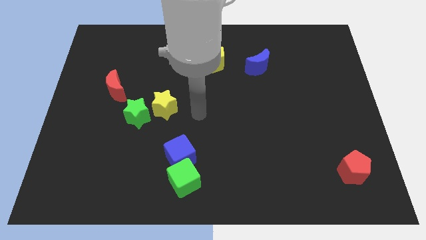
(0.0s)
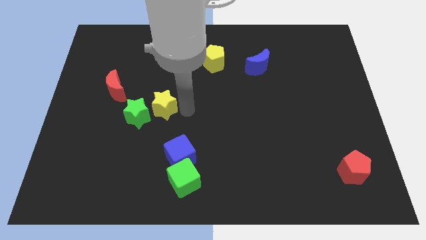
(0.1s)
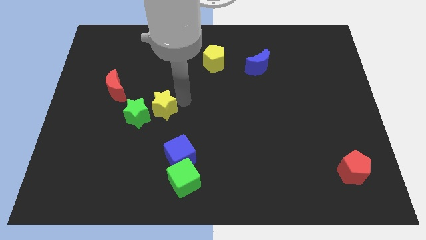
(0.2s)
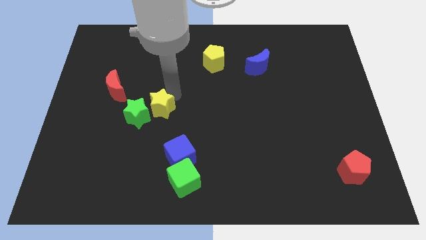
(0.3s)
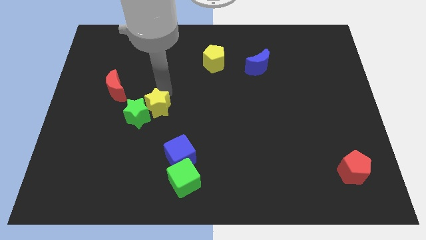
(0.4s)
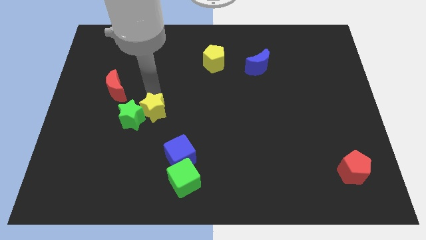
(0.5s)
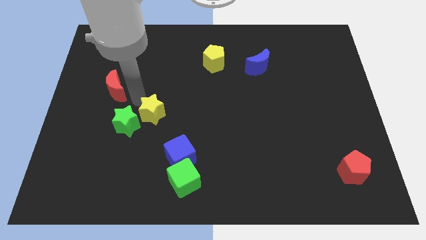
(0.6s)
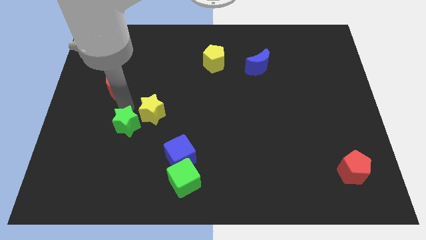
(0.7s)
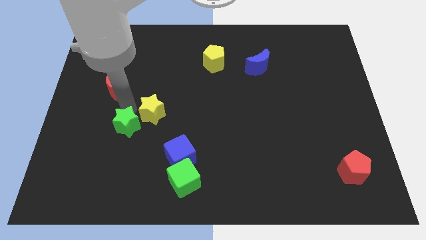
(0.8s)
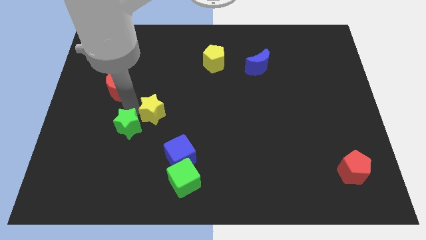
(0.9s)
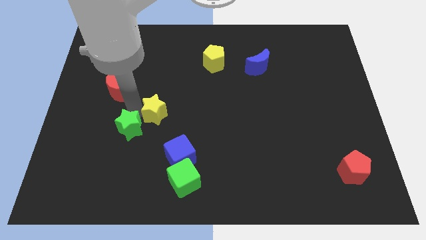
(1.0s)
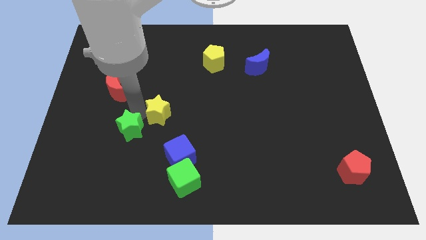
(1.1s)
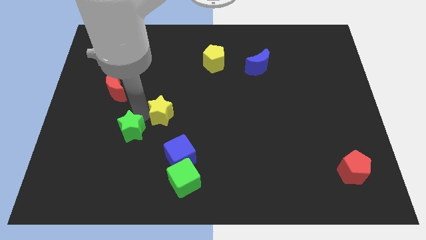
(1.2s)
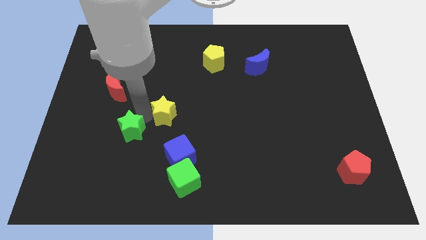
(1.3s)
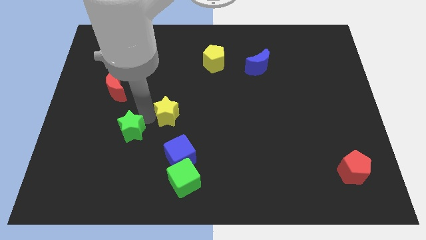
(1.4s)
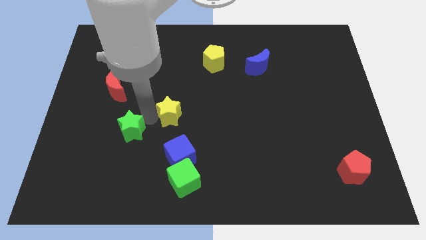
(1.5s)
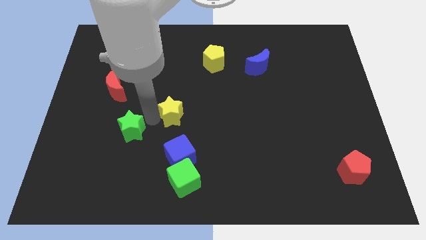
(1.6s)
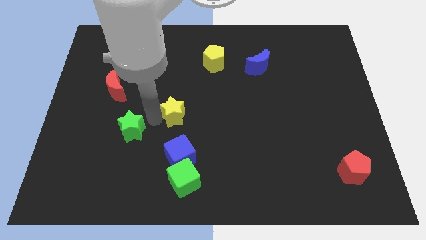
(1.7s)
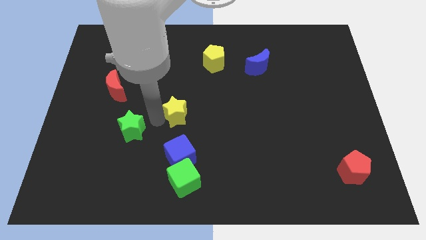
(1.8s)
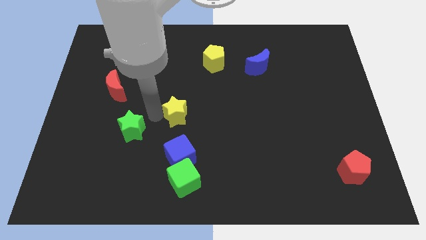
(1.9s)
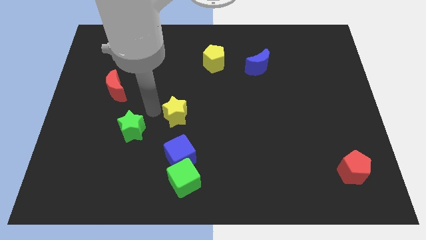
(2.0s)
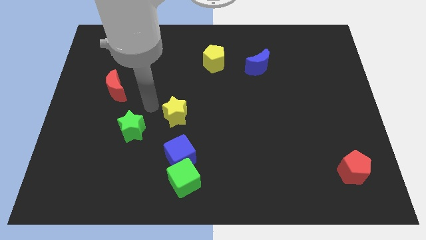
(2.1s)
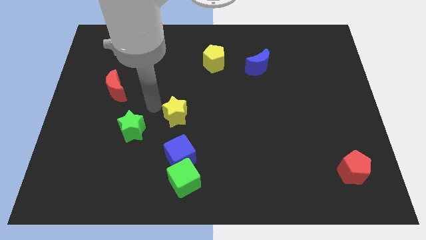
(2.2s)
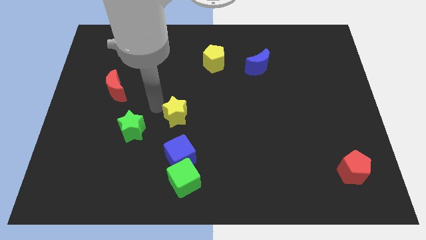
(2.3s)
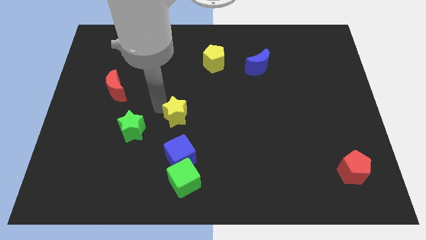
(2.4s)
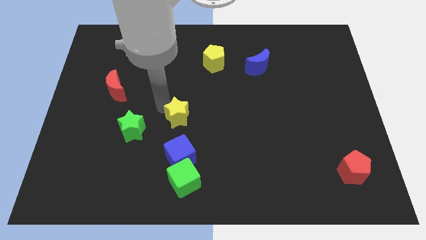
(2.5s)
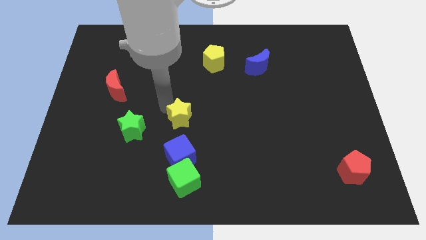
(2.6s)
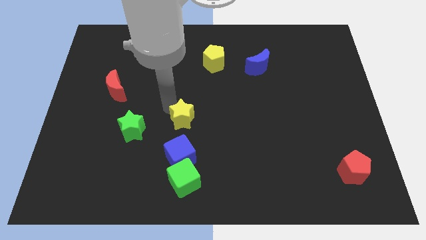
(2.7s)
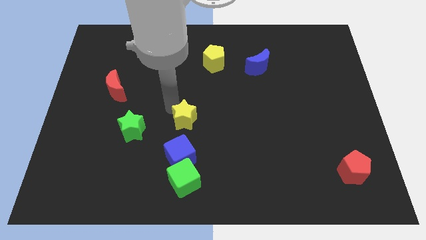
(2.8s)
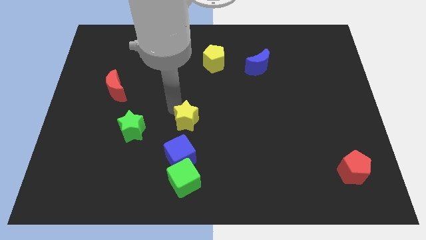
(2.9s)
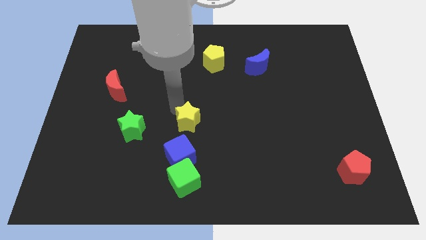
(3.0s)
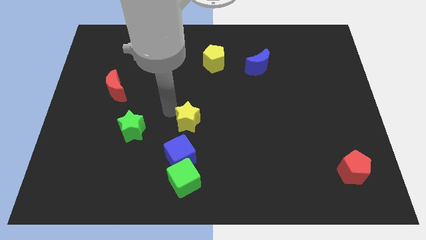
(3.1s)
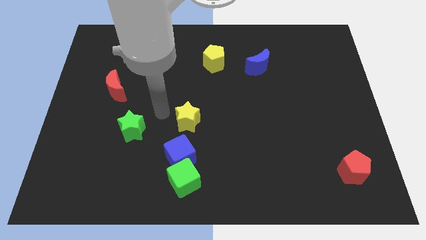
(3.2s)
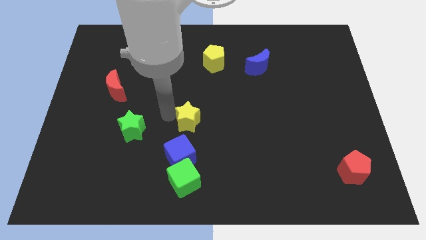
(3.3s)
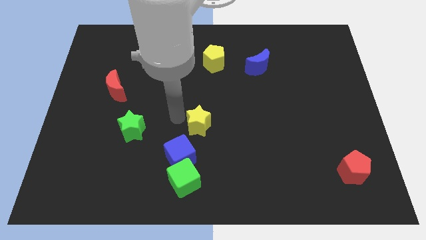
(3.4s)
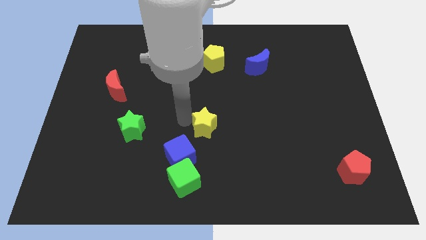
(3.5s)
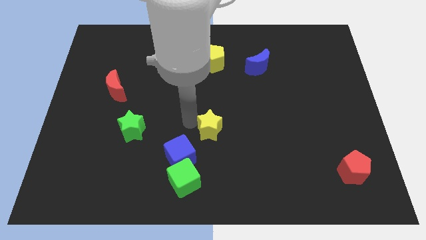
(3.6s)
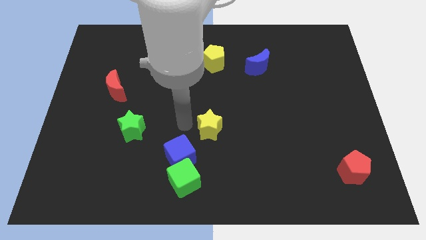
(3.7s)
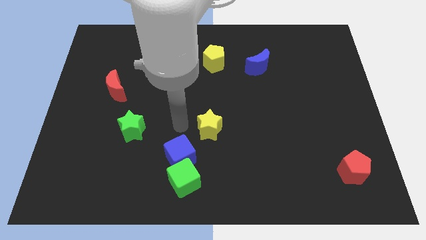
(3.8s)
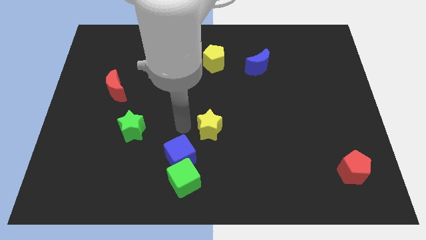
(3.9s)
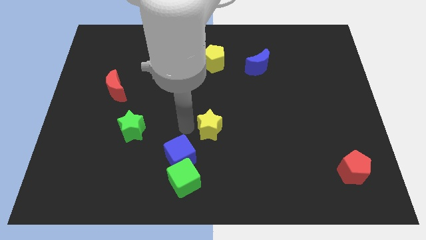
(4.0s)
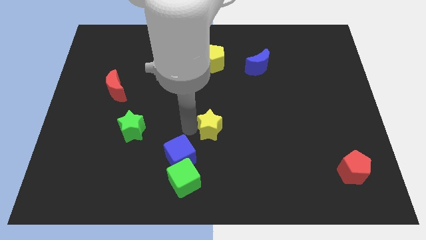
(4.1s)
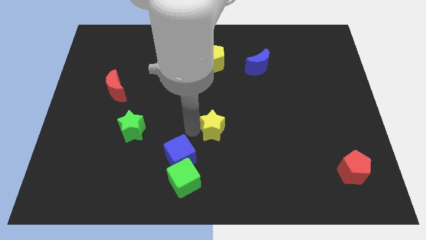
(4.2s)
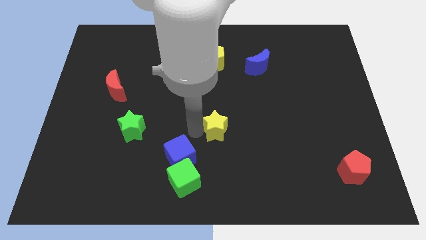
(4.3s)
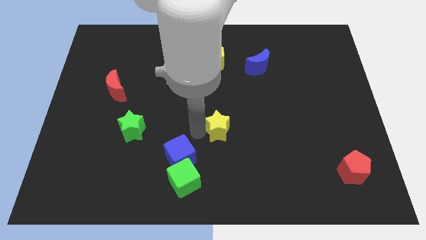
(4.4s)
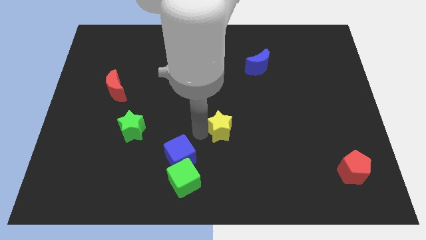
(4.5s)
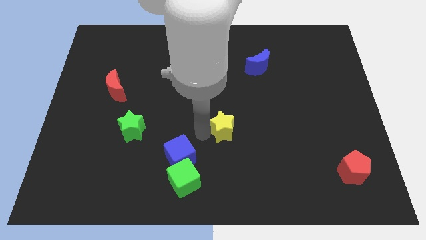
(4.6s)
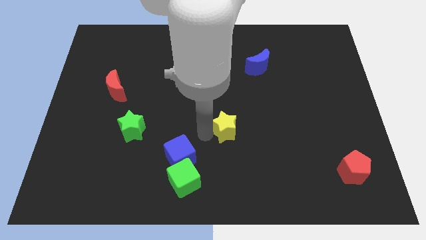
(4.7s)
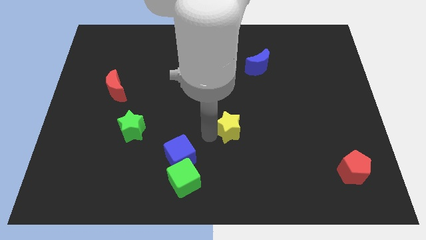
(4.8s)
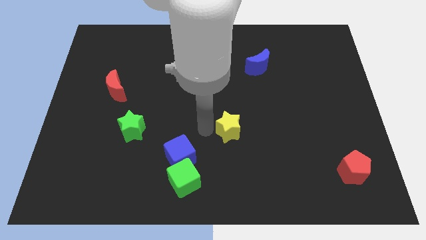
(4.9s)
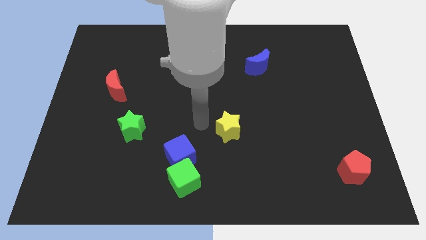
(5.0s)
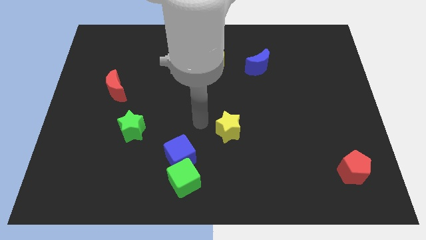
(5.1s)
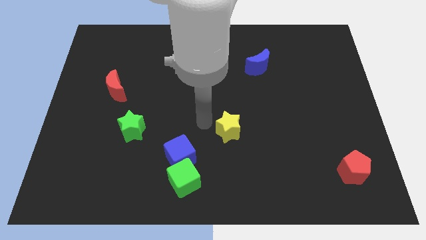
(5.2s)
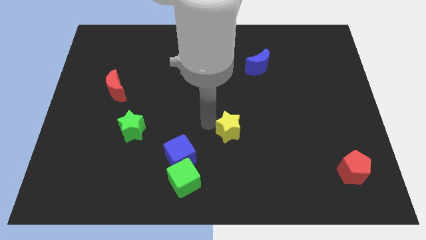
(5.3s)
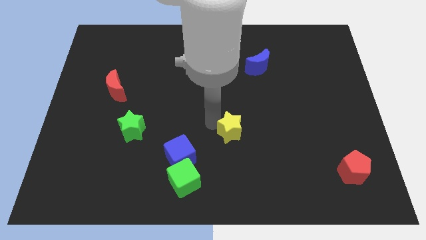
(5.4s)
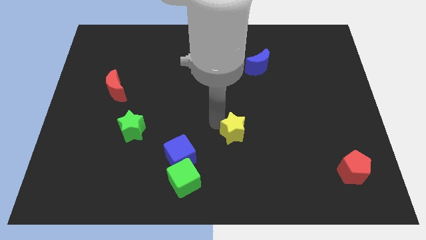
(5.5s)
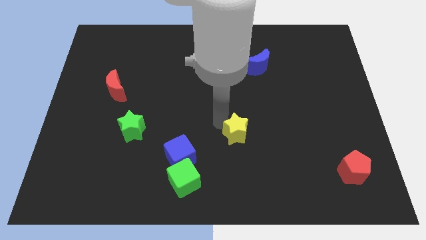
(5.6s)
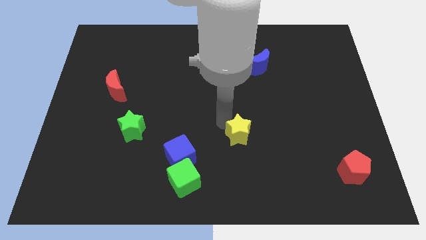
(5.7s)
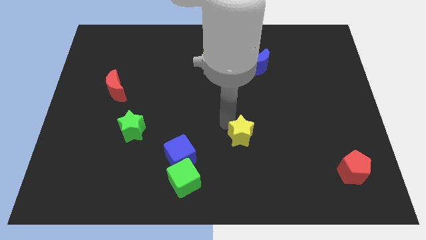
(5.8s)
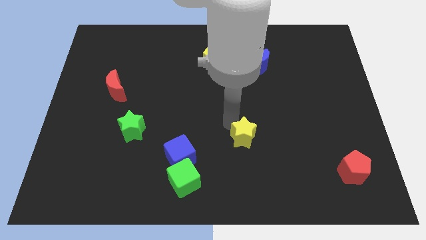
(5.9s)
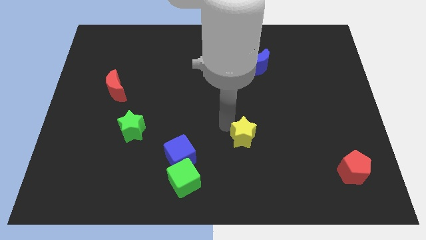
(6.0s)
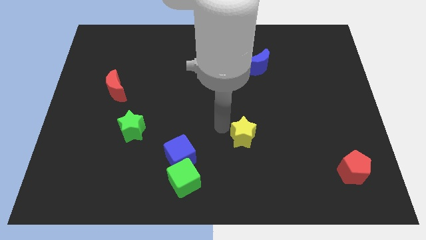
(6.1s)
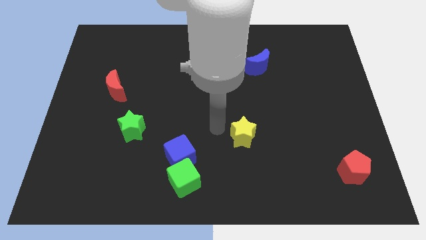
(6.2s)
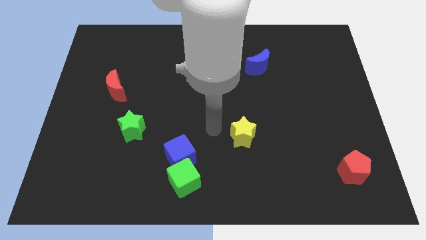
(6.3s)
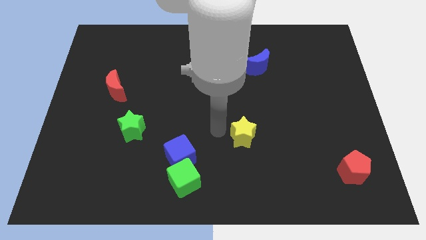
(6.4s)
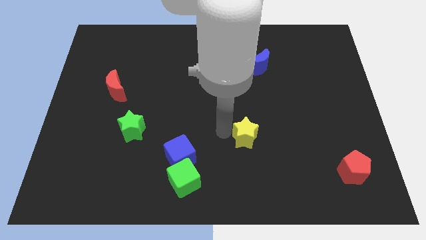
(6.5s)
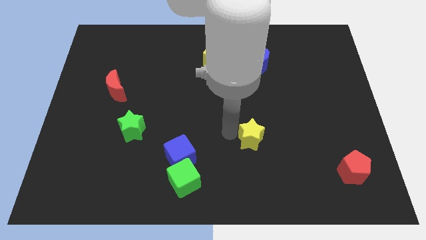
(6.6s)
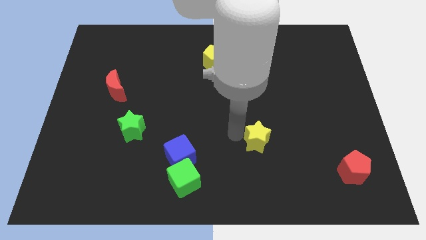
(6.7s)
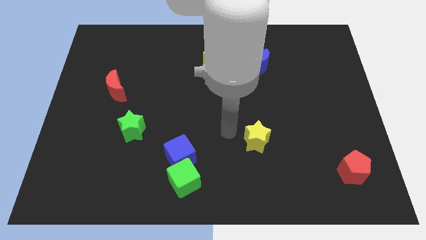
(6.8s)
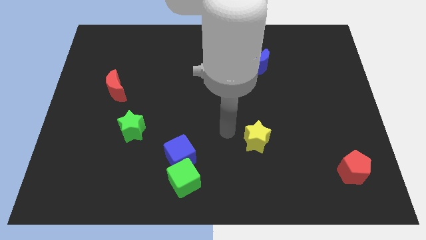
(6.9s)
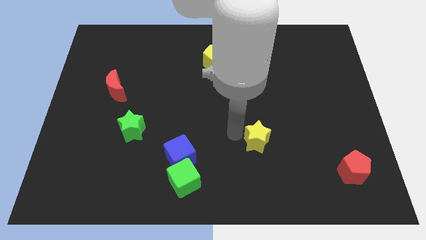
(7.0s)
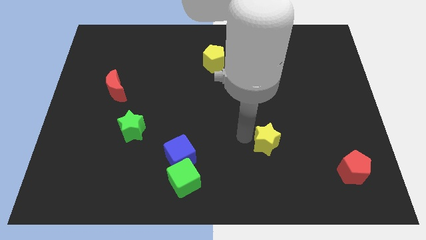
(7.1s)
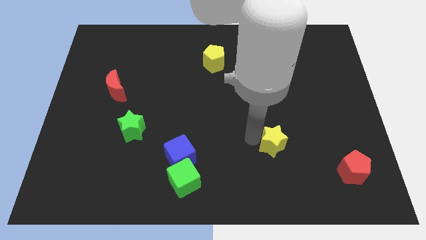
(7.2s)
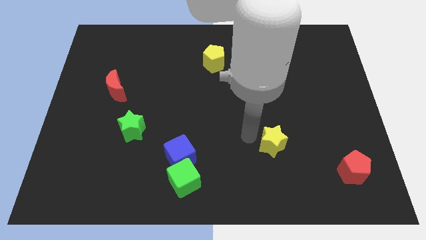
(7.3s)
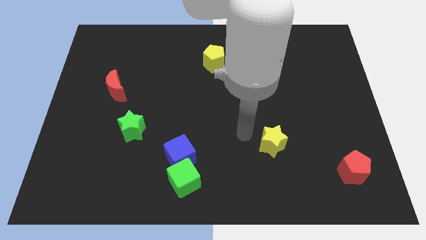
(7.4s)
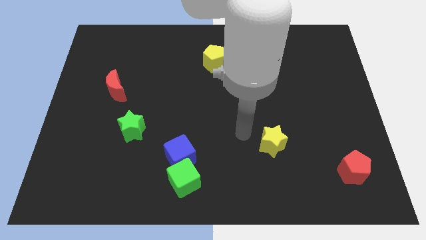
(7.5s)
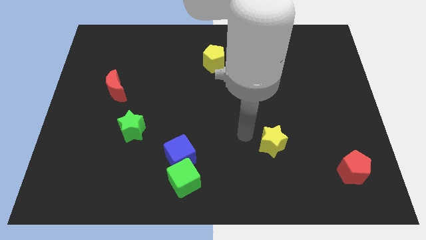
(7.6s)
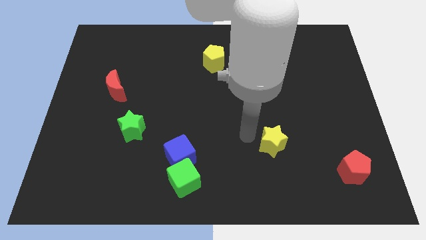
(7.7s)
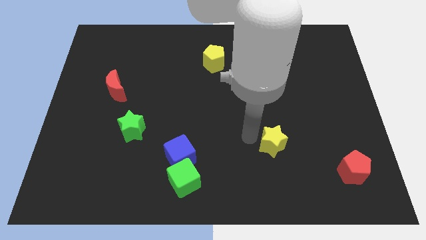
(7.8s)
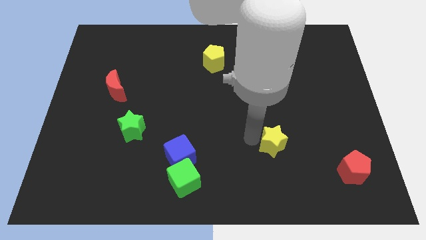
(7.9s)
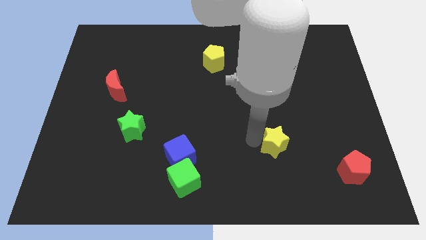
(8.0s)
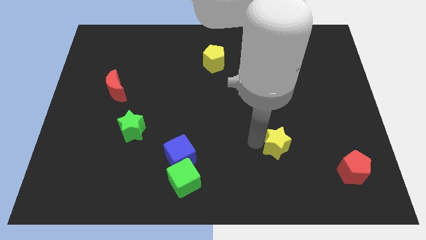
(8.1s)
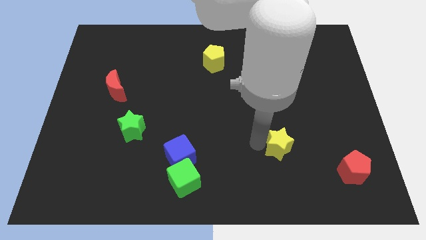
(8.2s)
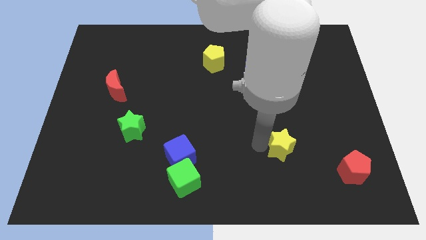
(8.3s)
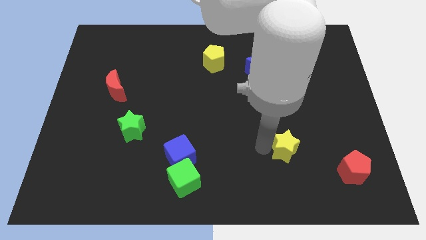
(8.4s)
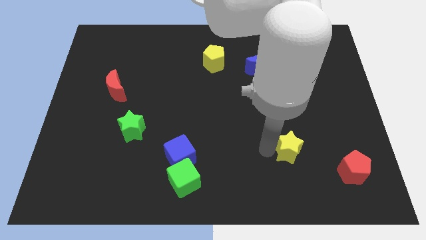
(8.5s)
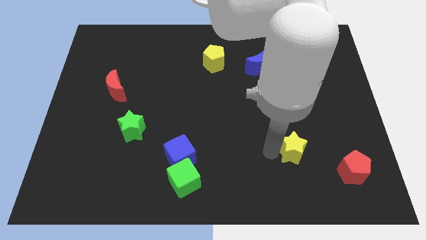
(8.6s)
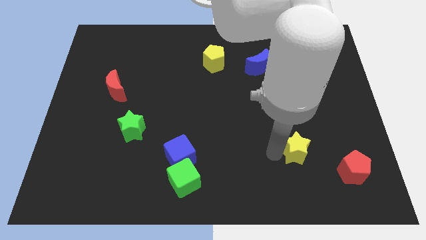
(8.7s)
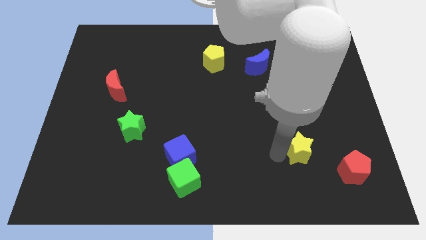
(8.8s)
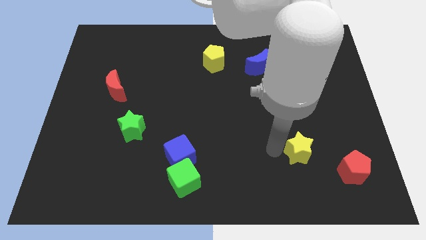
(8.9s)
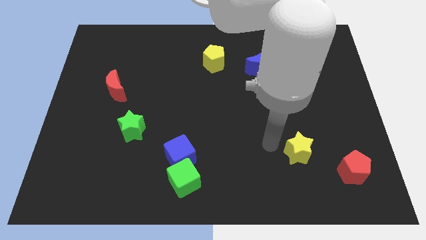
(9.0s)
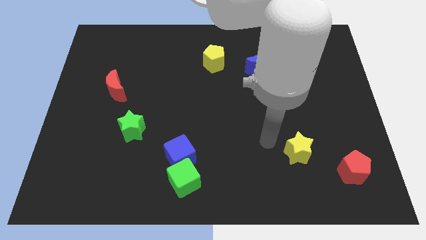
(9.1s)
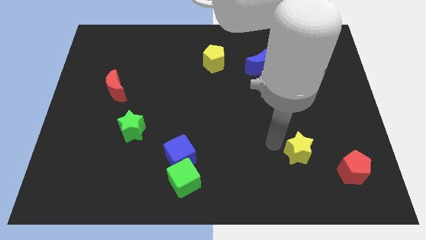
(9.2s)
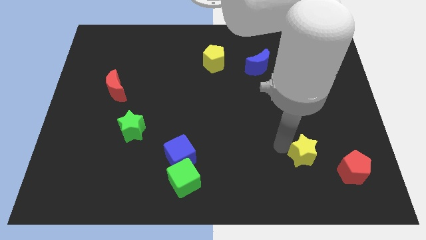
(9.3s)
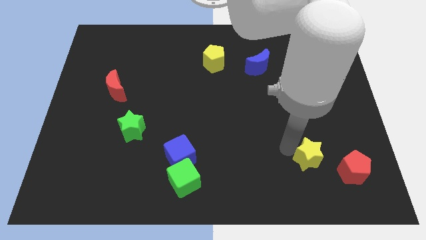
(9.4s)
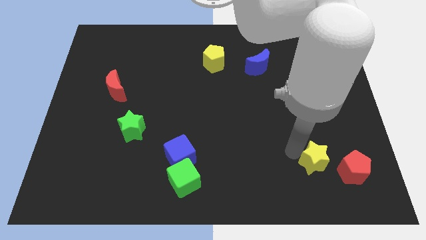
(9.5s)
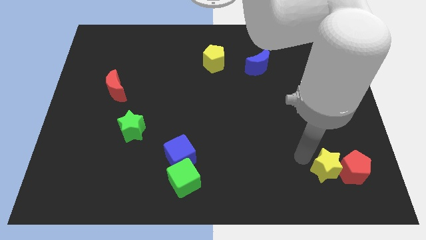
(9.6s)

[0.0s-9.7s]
push the yellow star to the red pentagon
